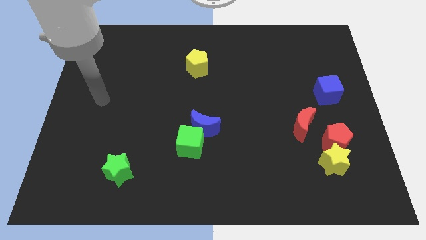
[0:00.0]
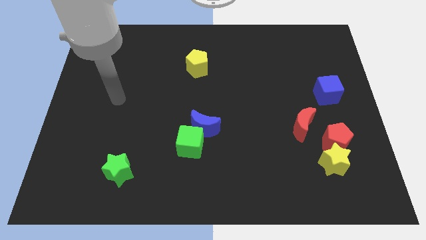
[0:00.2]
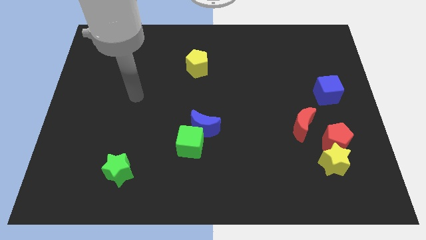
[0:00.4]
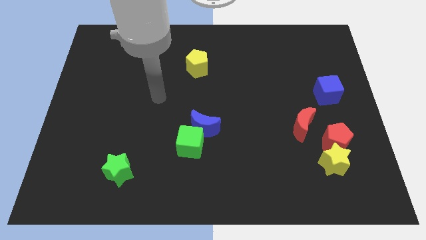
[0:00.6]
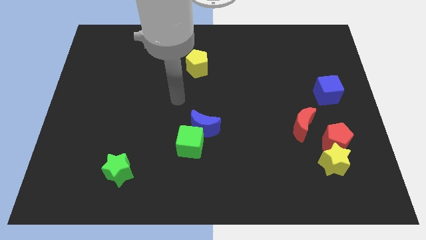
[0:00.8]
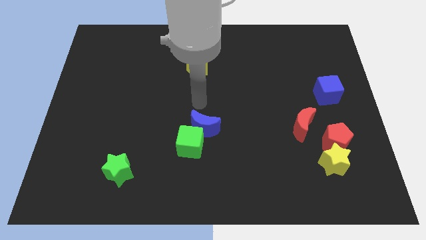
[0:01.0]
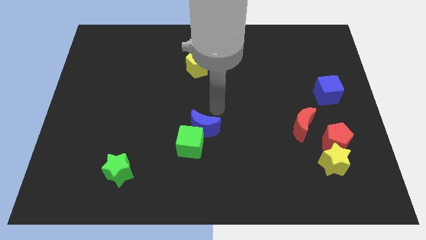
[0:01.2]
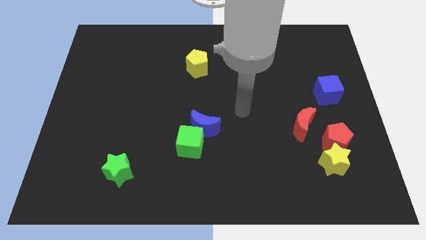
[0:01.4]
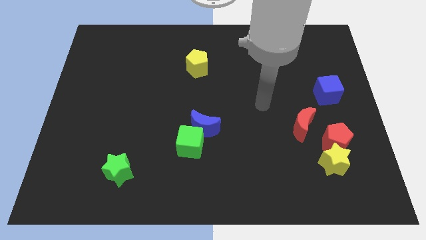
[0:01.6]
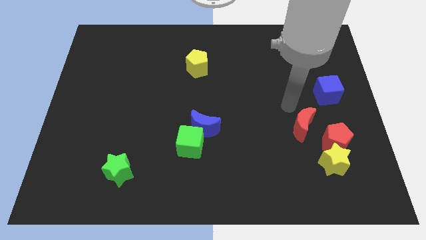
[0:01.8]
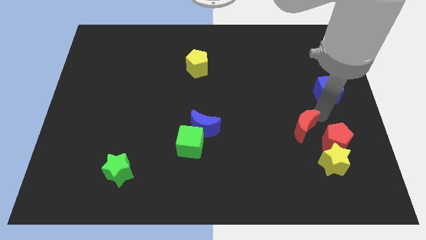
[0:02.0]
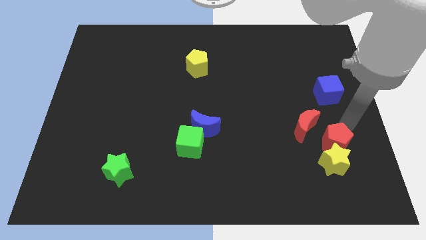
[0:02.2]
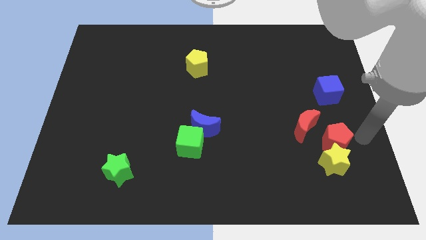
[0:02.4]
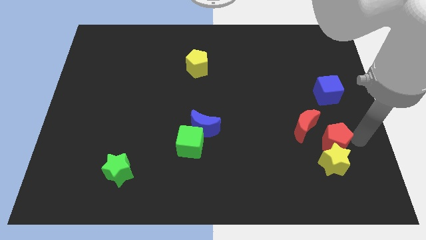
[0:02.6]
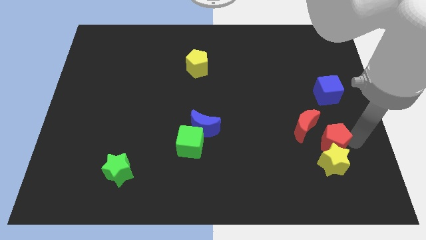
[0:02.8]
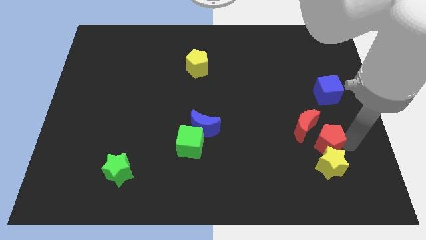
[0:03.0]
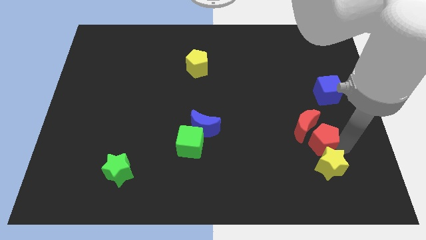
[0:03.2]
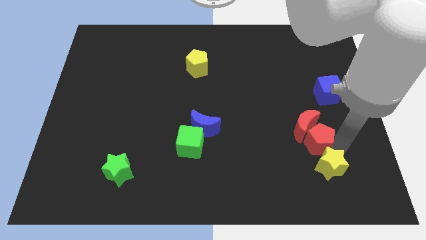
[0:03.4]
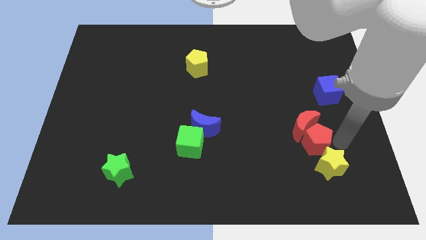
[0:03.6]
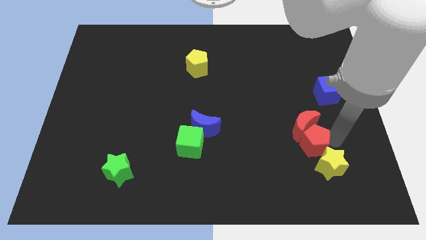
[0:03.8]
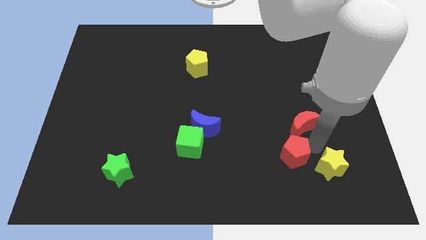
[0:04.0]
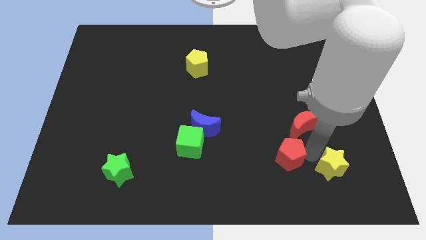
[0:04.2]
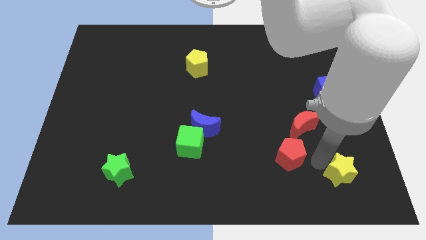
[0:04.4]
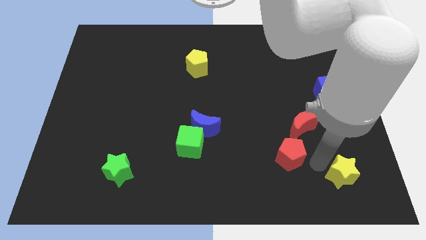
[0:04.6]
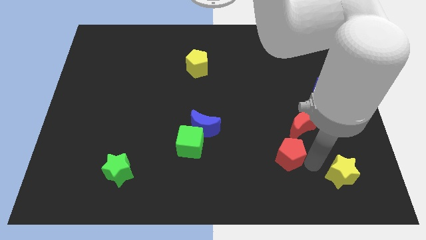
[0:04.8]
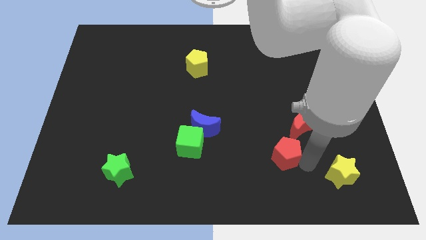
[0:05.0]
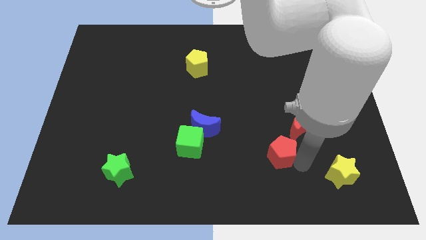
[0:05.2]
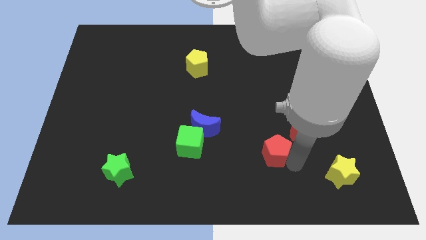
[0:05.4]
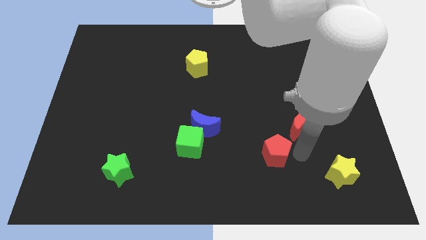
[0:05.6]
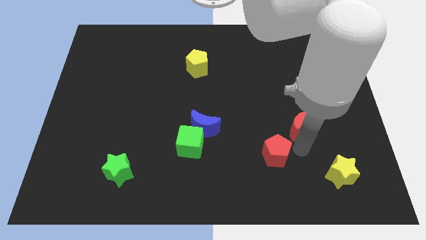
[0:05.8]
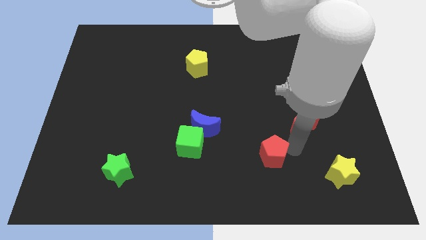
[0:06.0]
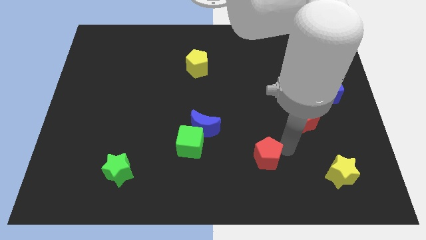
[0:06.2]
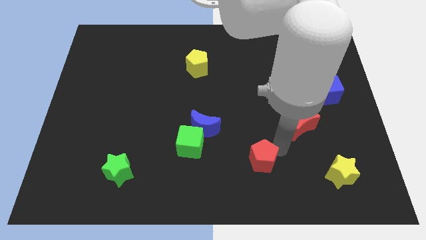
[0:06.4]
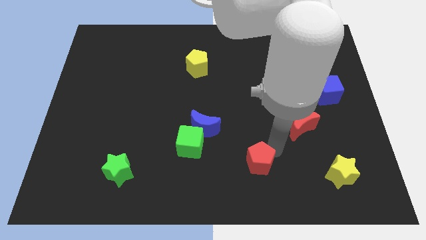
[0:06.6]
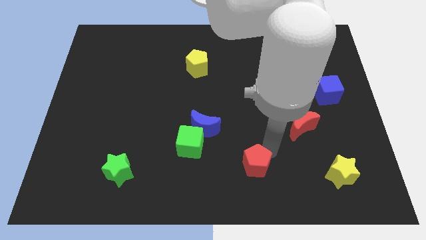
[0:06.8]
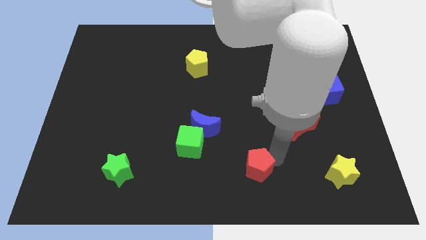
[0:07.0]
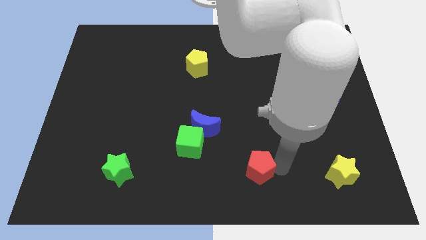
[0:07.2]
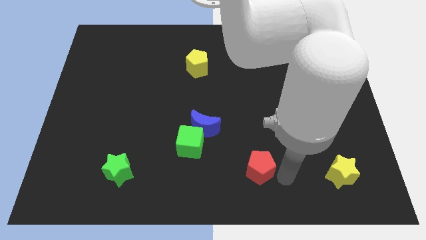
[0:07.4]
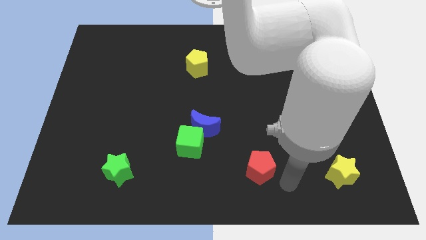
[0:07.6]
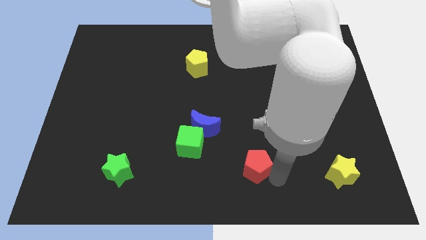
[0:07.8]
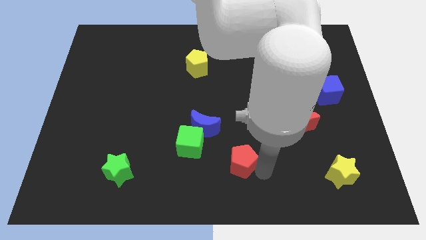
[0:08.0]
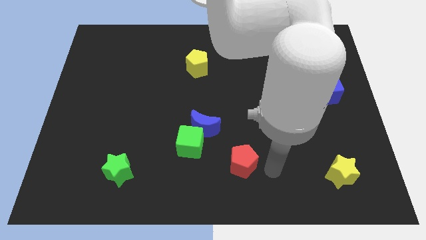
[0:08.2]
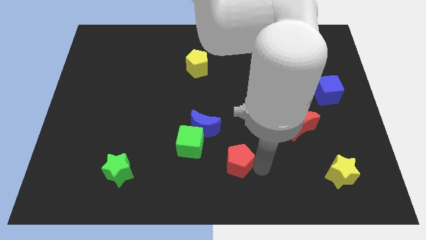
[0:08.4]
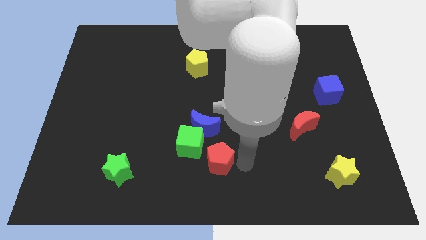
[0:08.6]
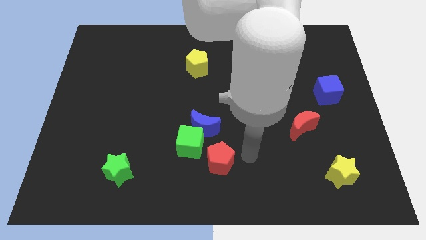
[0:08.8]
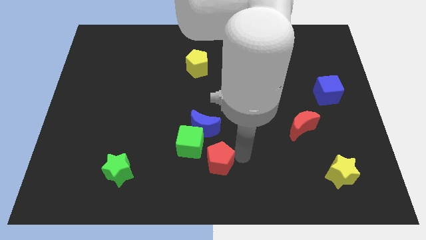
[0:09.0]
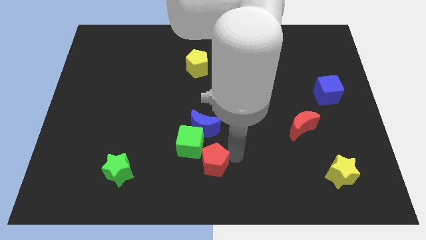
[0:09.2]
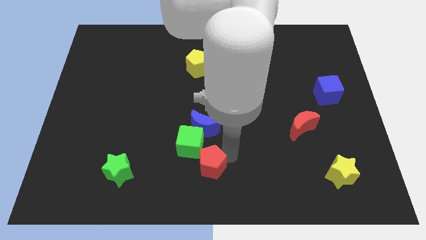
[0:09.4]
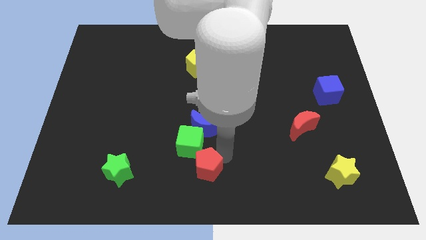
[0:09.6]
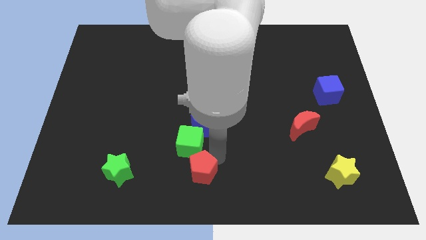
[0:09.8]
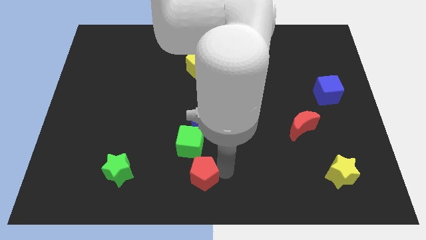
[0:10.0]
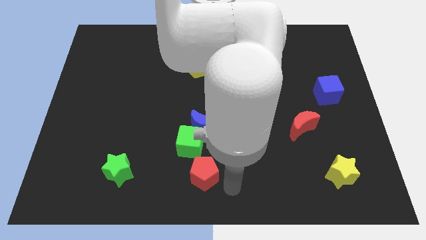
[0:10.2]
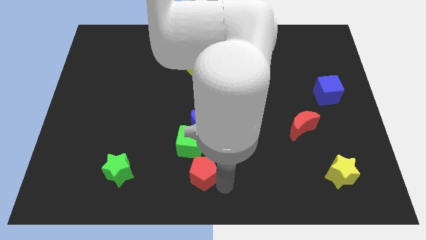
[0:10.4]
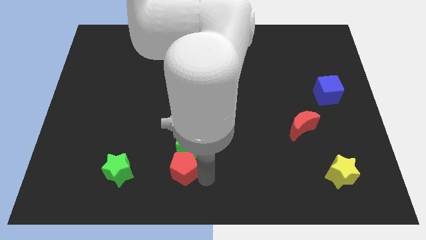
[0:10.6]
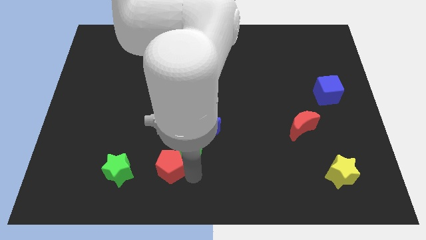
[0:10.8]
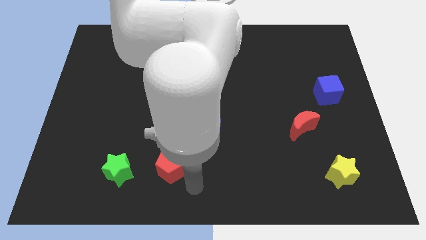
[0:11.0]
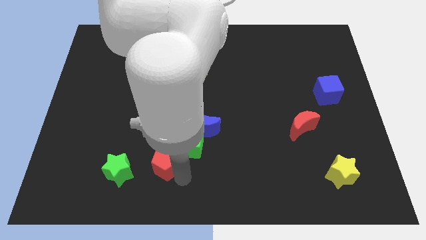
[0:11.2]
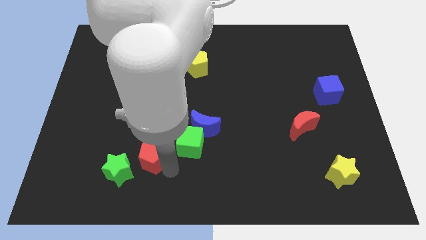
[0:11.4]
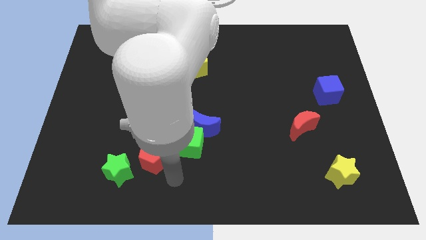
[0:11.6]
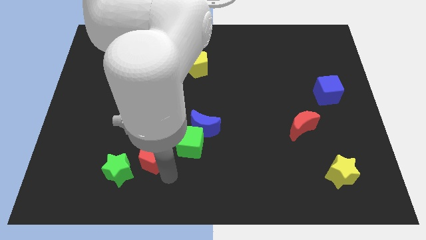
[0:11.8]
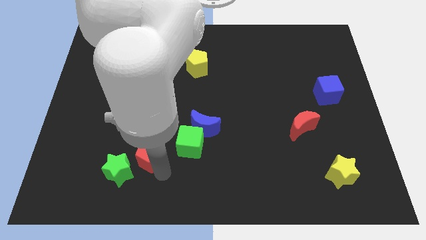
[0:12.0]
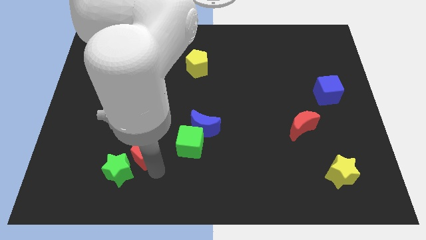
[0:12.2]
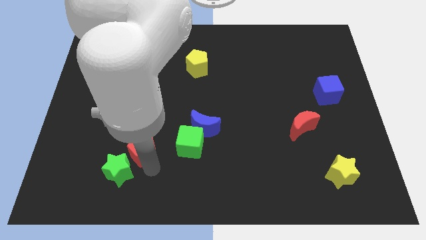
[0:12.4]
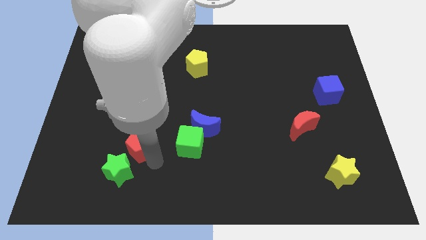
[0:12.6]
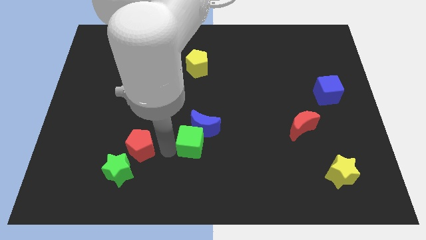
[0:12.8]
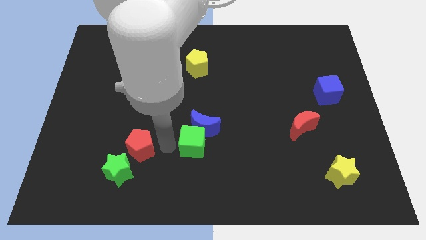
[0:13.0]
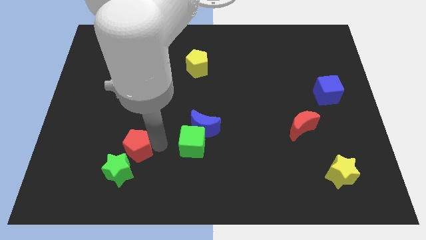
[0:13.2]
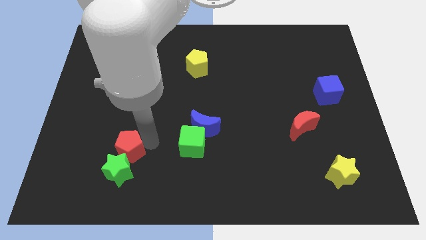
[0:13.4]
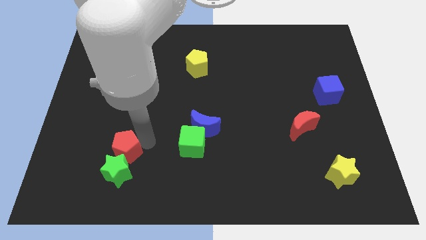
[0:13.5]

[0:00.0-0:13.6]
push the red pentagon diagonally up and to the left of the green star
